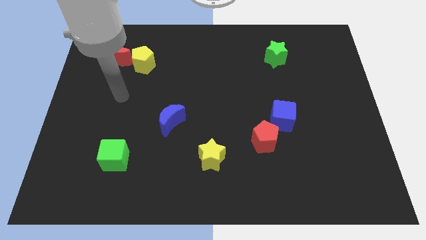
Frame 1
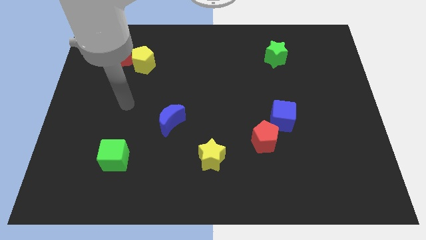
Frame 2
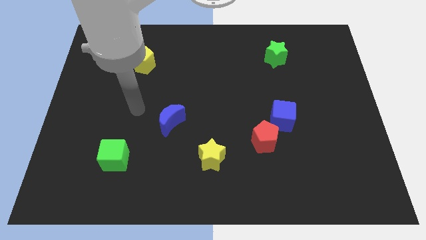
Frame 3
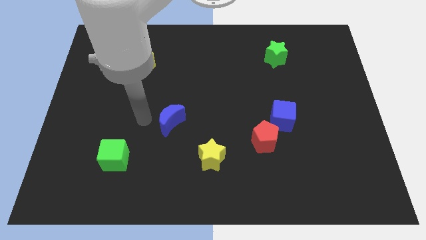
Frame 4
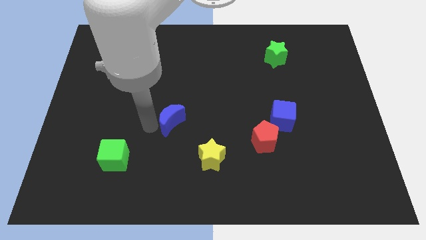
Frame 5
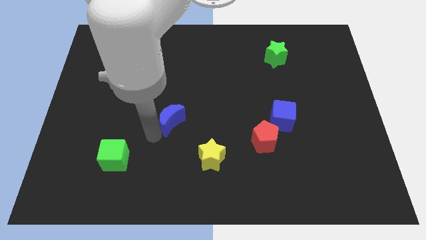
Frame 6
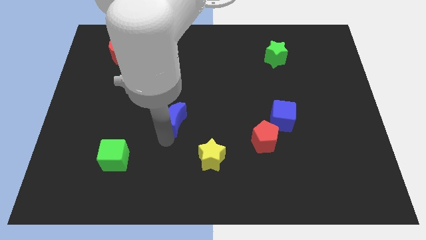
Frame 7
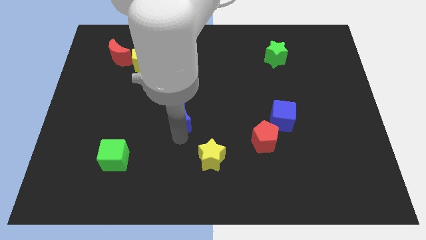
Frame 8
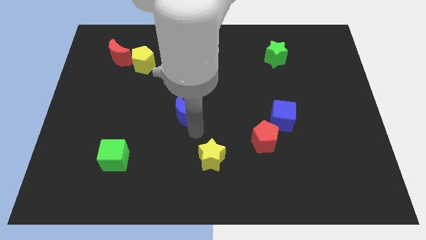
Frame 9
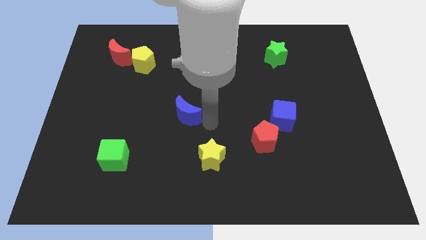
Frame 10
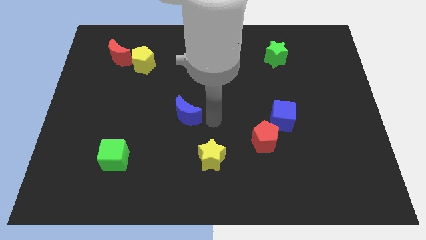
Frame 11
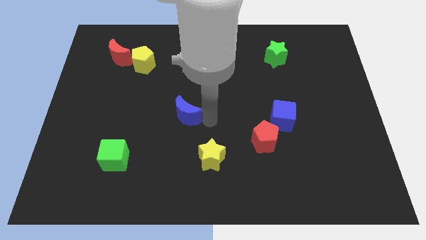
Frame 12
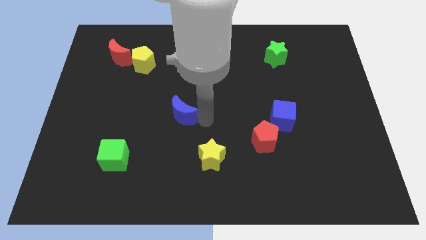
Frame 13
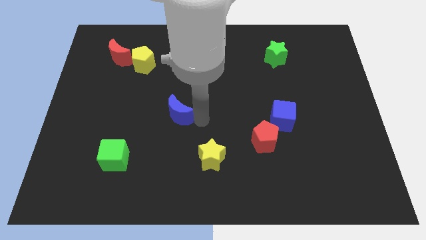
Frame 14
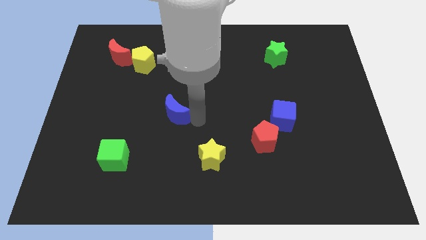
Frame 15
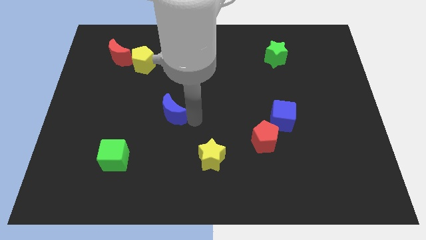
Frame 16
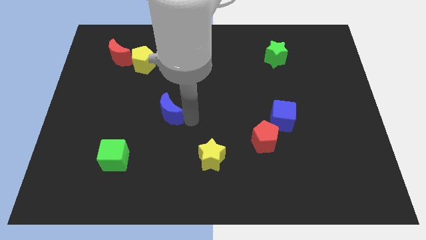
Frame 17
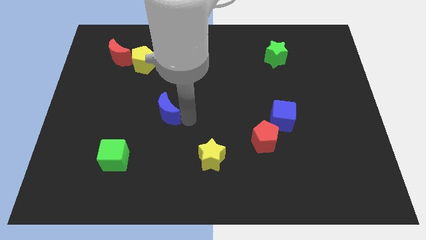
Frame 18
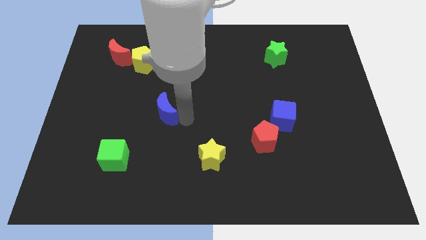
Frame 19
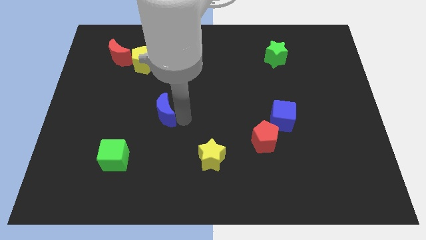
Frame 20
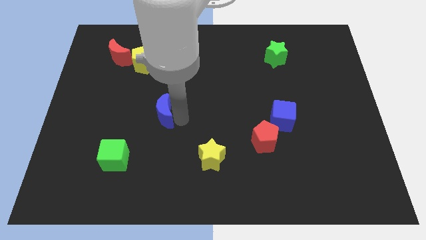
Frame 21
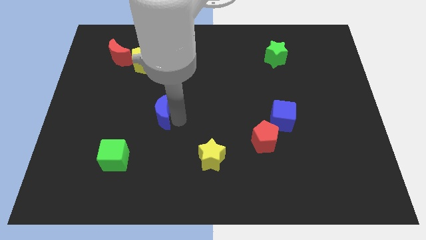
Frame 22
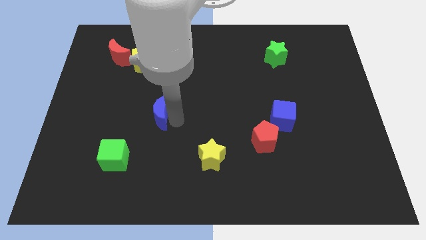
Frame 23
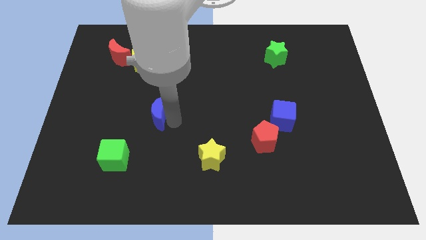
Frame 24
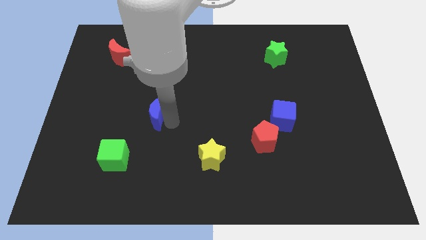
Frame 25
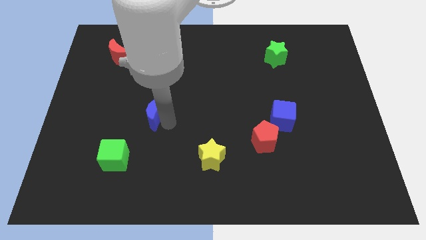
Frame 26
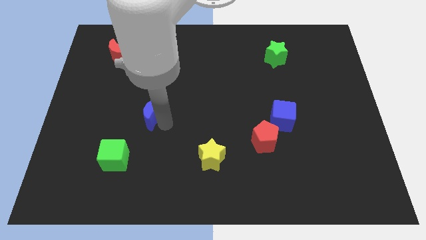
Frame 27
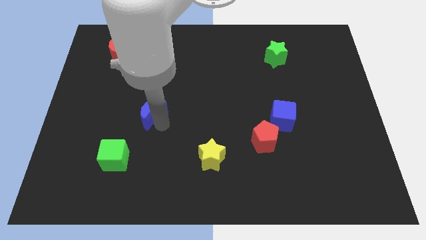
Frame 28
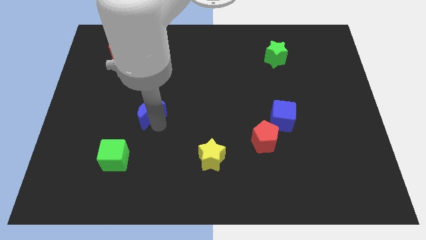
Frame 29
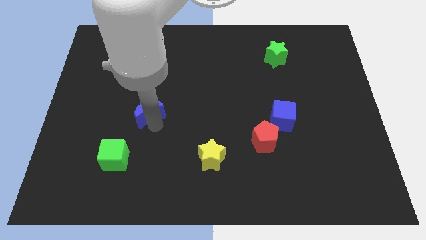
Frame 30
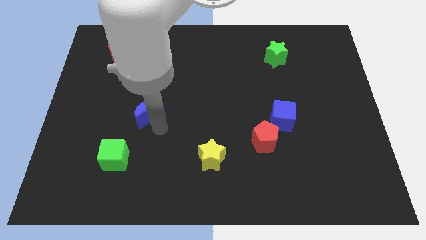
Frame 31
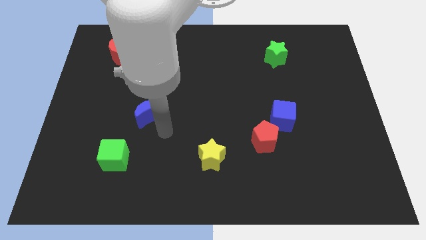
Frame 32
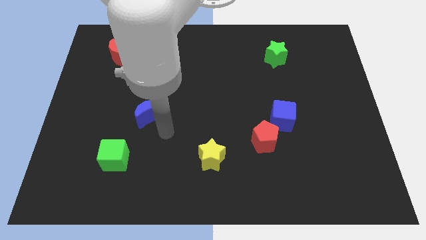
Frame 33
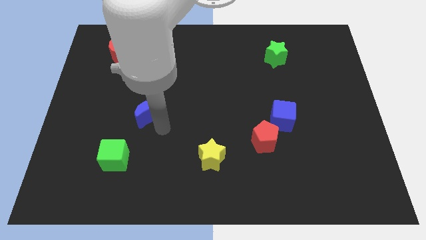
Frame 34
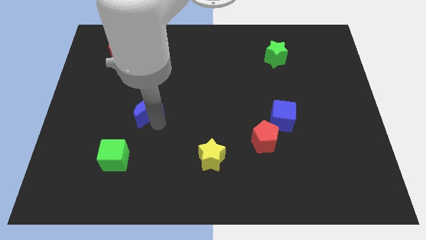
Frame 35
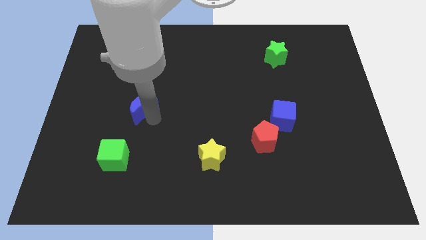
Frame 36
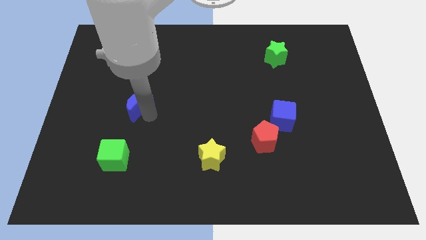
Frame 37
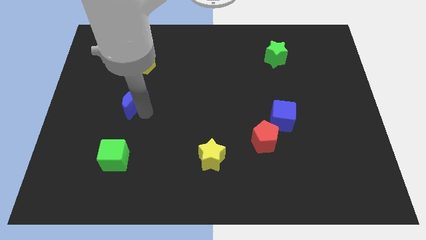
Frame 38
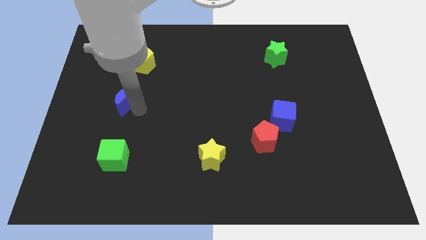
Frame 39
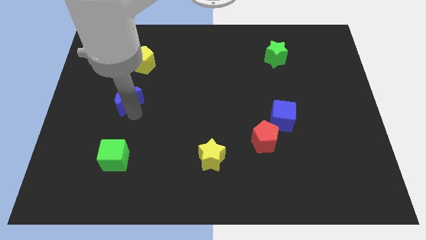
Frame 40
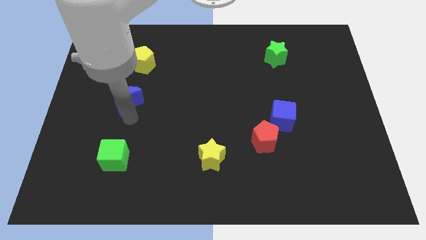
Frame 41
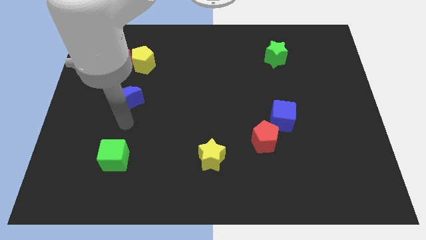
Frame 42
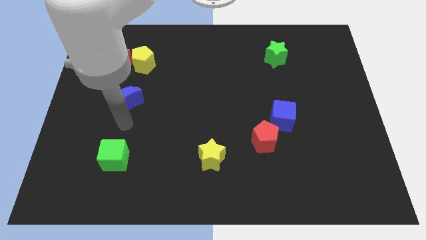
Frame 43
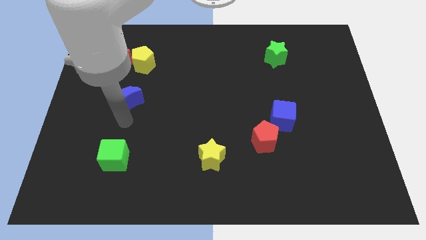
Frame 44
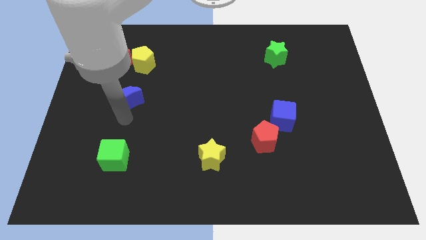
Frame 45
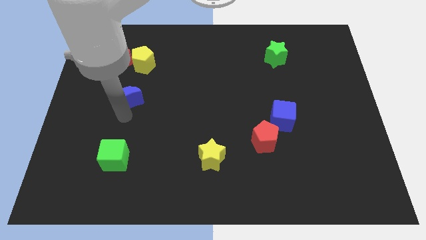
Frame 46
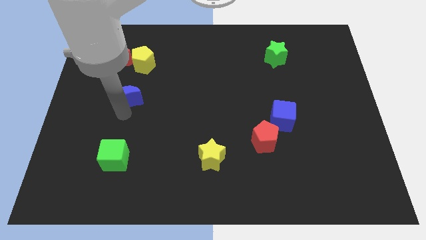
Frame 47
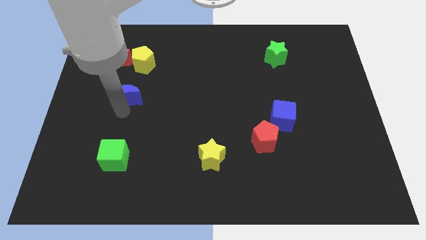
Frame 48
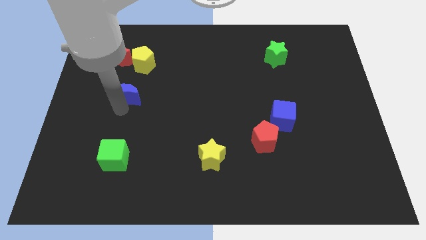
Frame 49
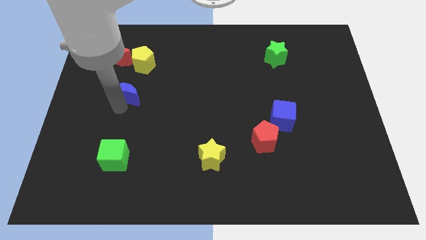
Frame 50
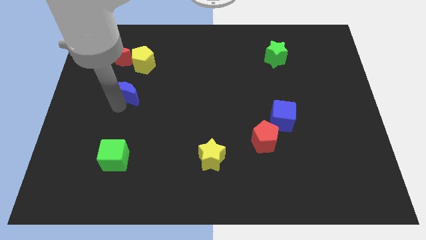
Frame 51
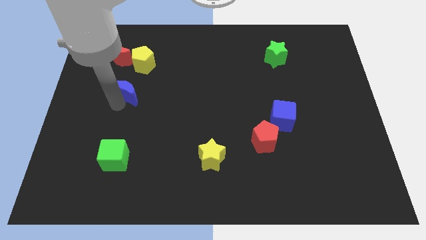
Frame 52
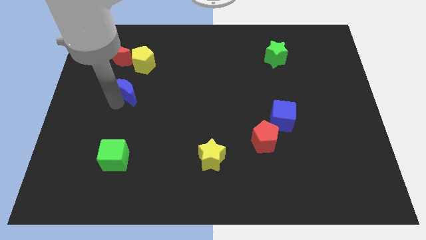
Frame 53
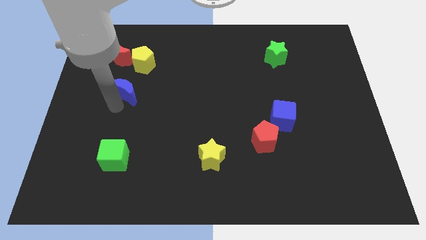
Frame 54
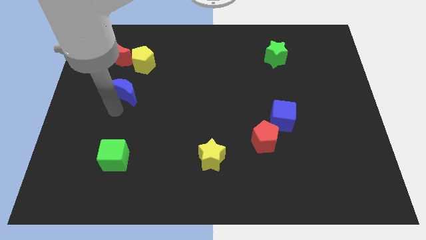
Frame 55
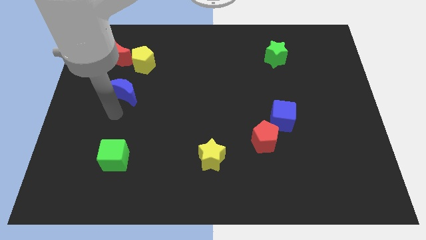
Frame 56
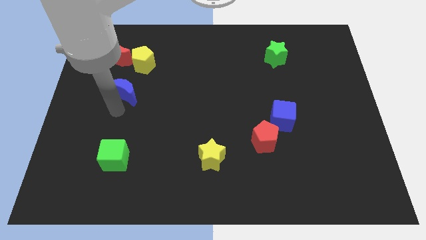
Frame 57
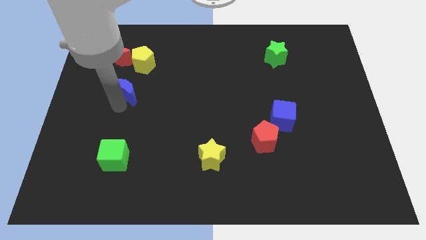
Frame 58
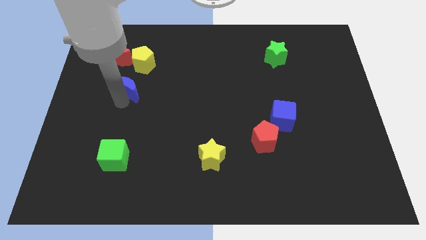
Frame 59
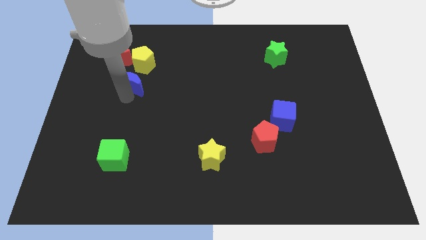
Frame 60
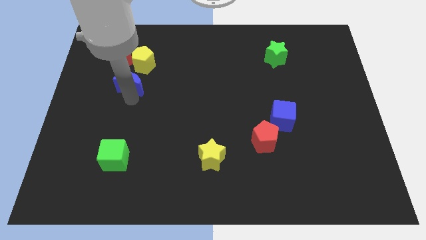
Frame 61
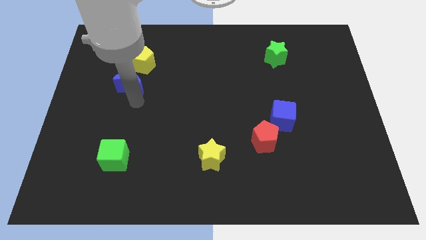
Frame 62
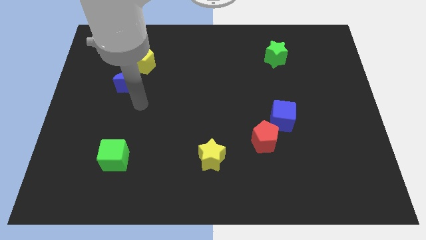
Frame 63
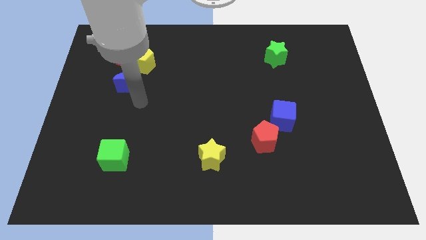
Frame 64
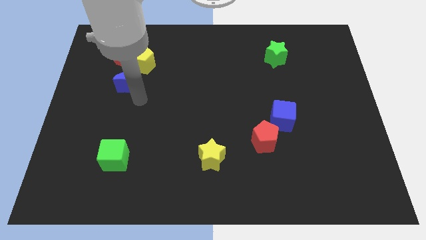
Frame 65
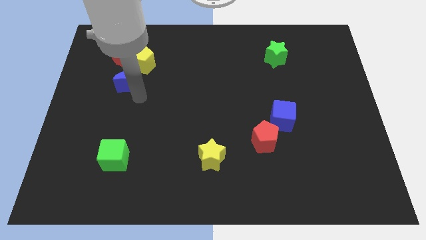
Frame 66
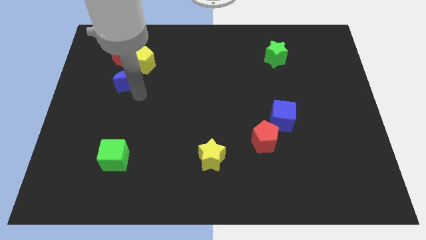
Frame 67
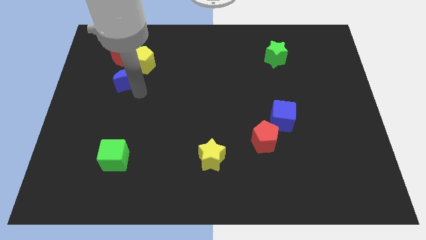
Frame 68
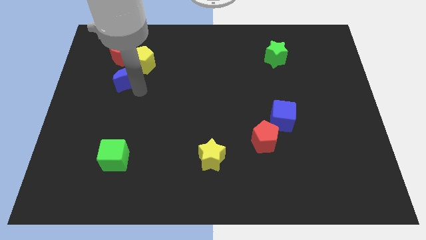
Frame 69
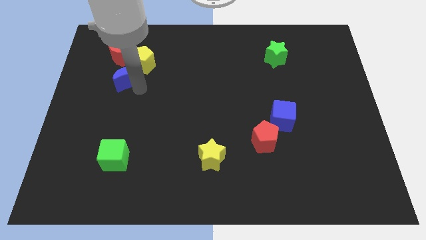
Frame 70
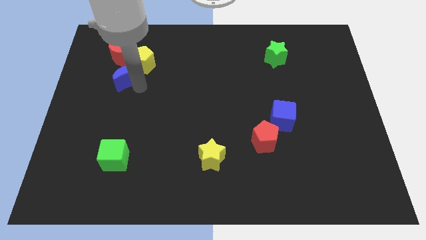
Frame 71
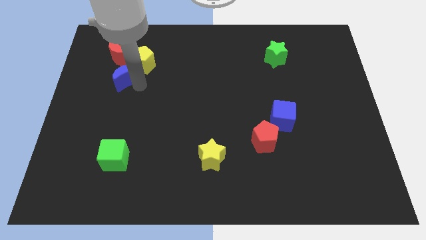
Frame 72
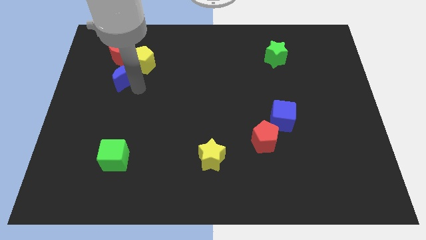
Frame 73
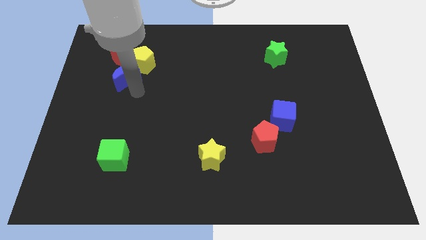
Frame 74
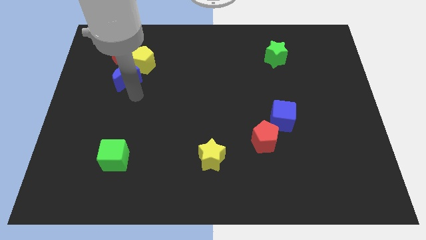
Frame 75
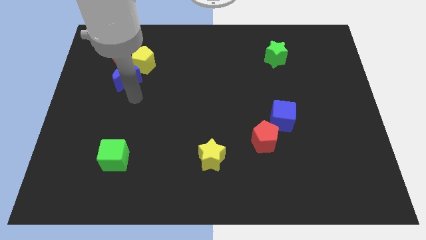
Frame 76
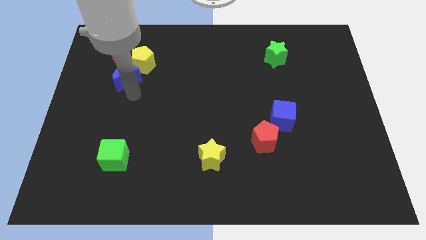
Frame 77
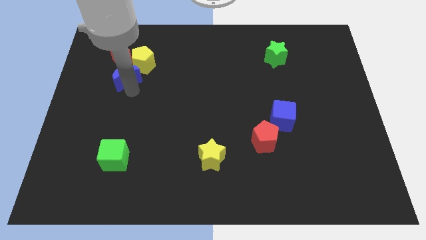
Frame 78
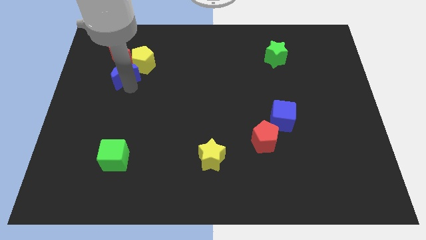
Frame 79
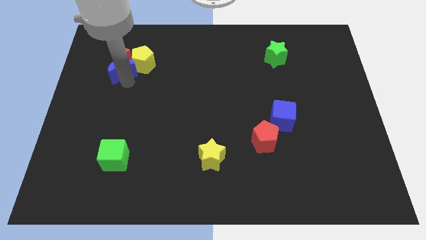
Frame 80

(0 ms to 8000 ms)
move the blue moon close to the red moon
